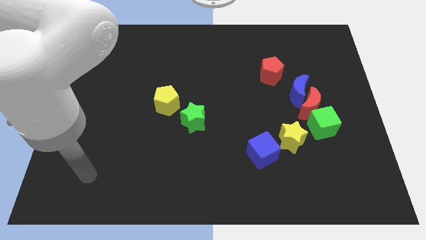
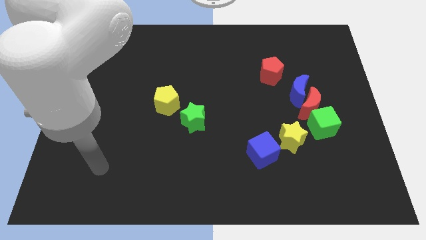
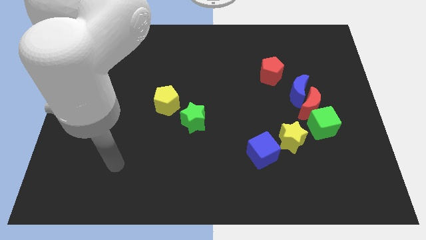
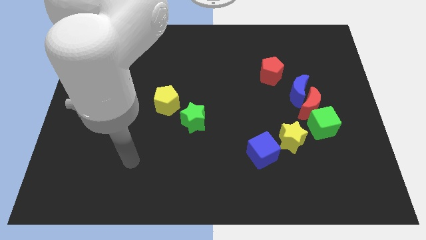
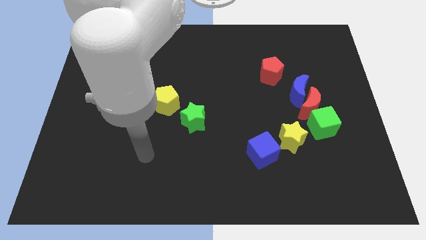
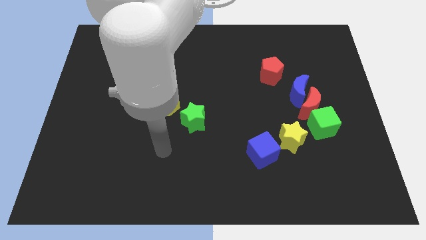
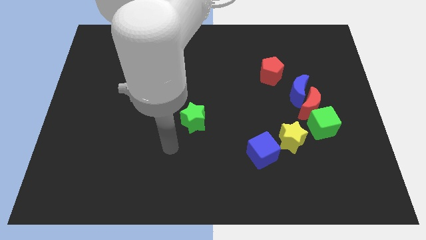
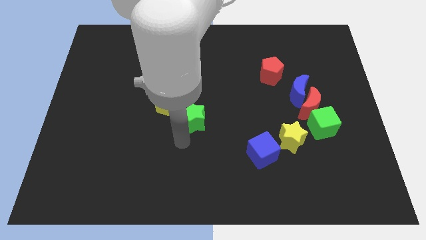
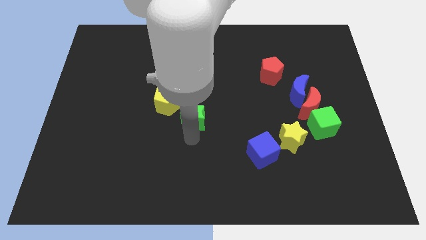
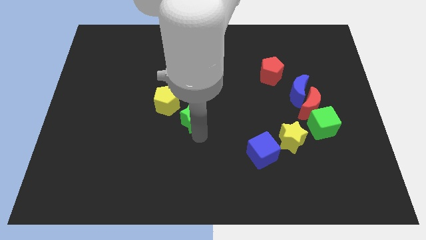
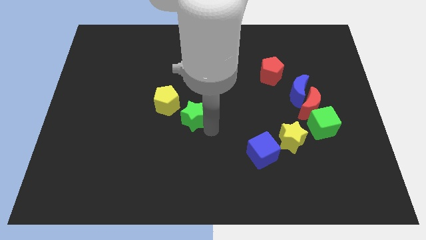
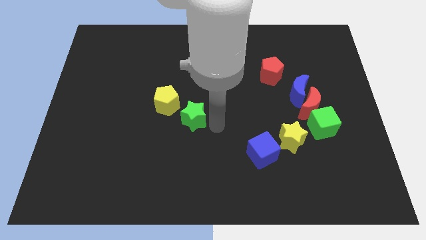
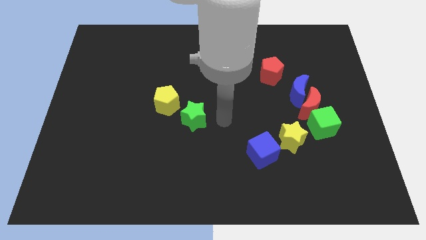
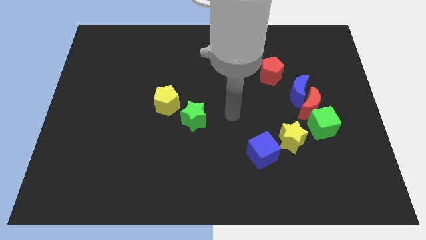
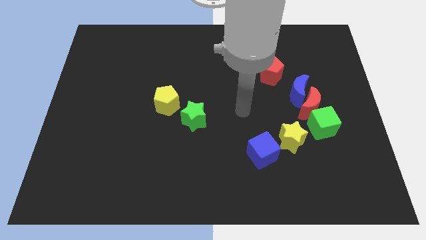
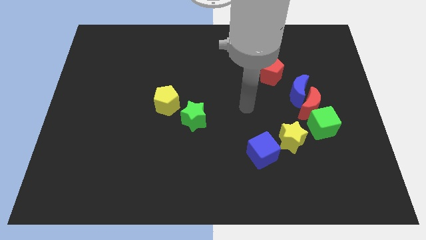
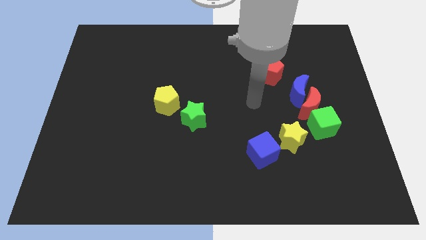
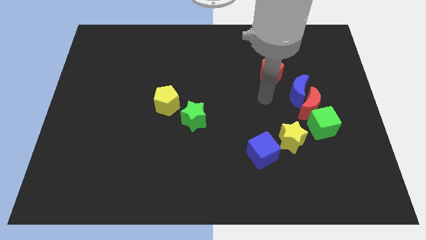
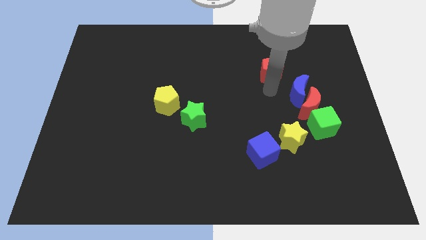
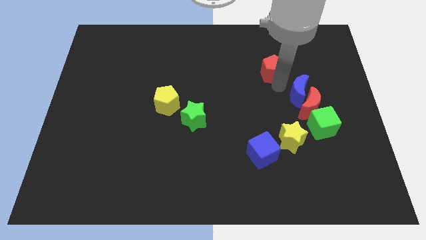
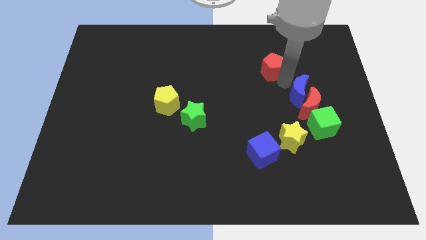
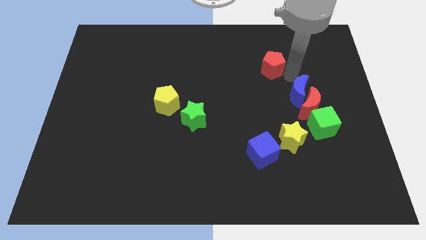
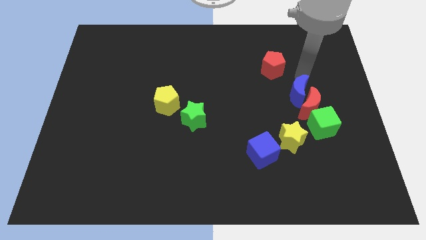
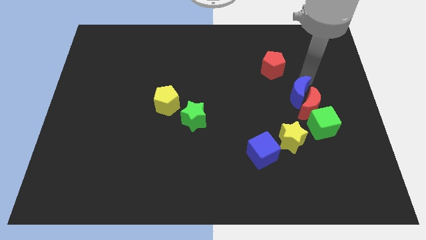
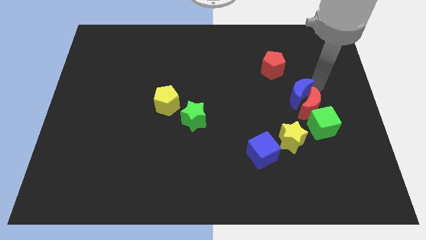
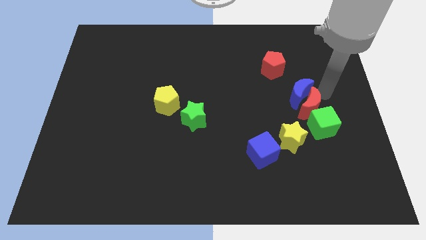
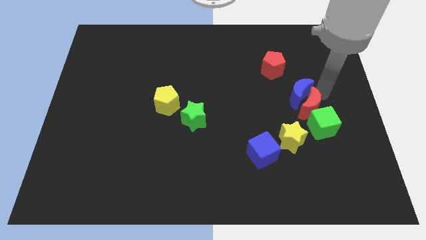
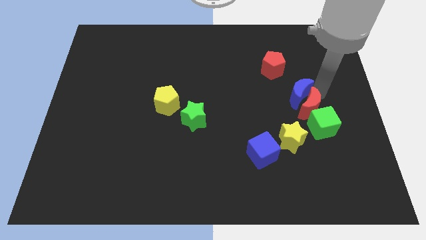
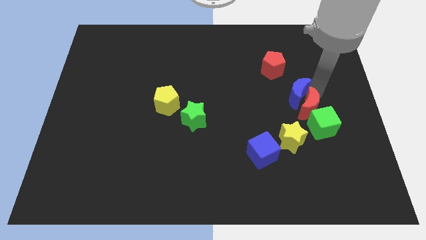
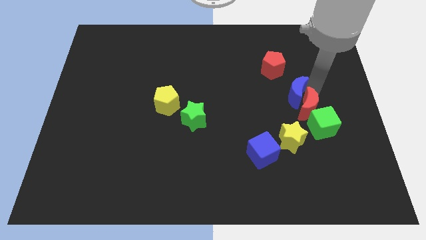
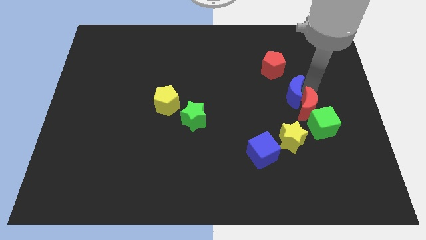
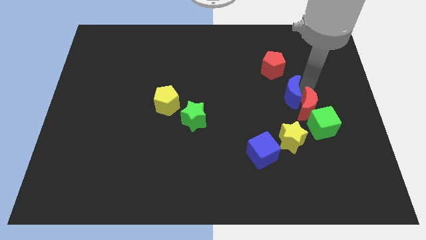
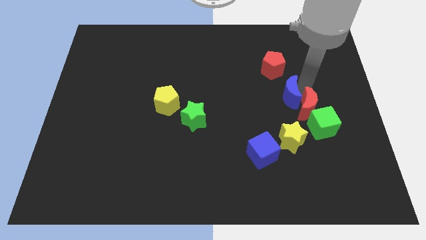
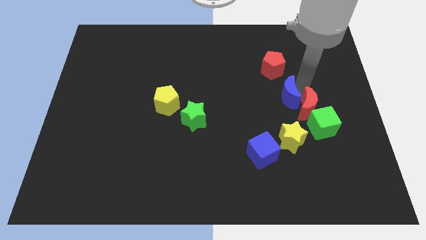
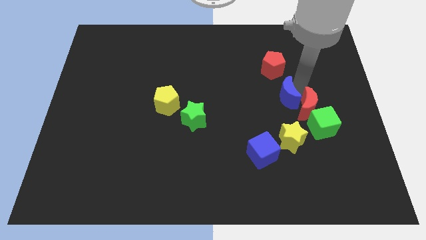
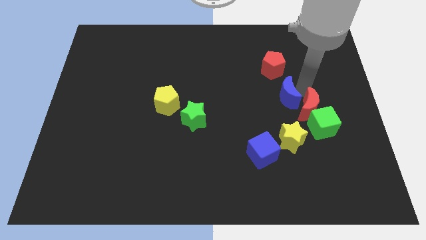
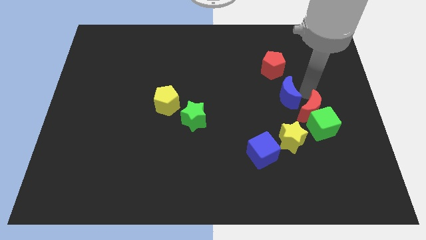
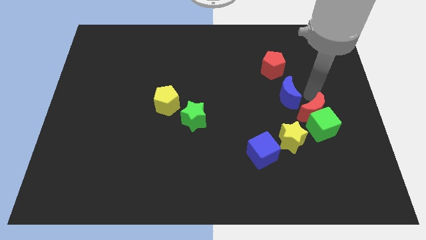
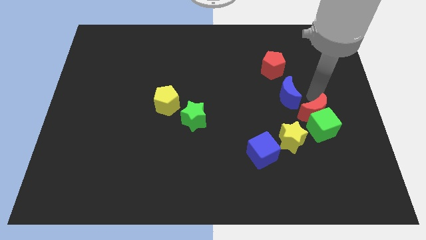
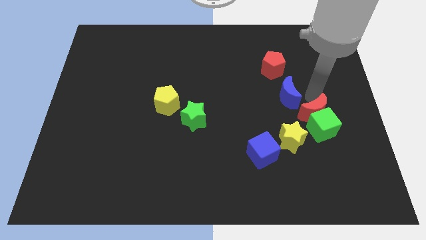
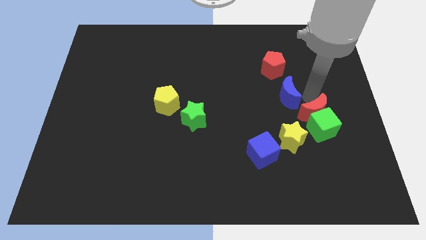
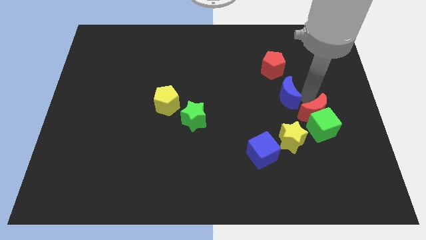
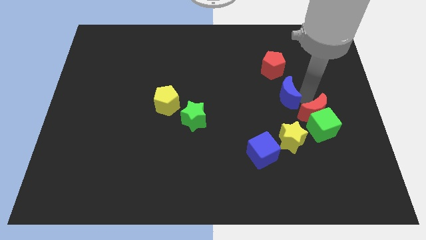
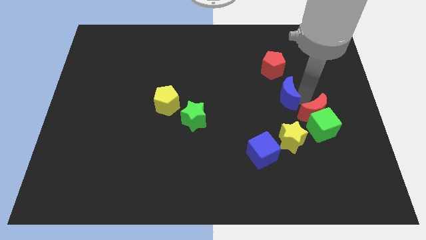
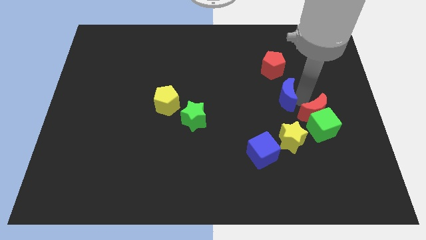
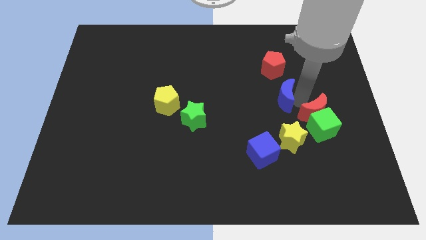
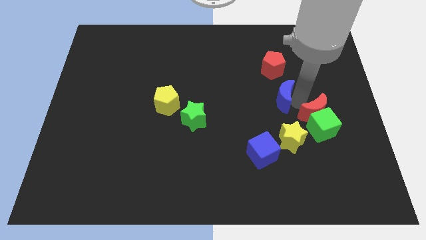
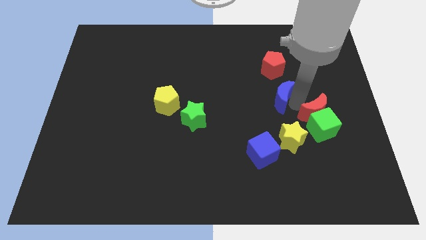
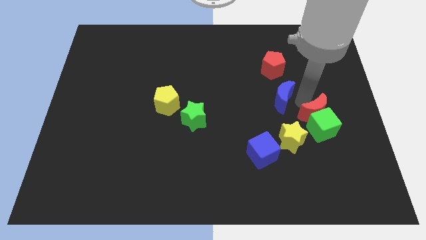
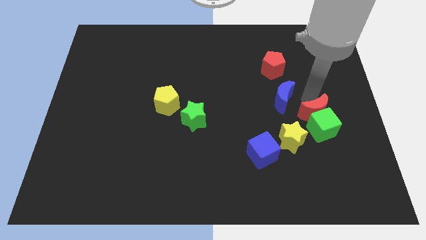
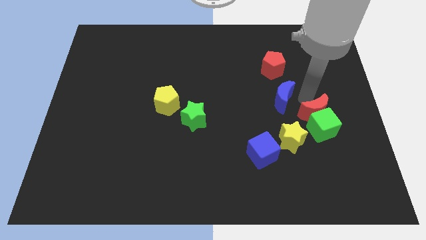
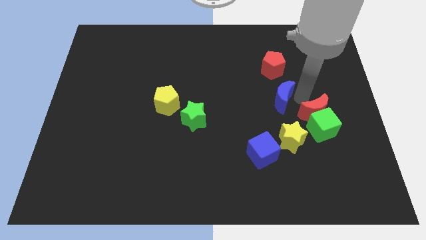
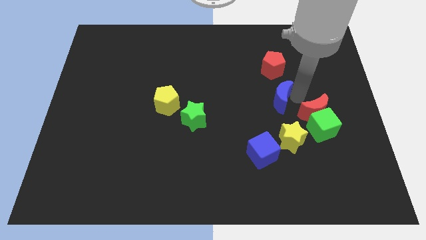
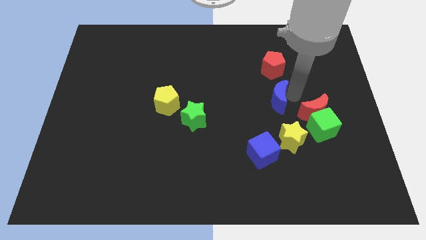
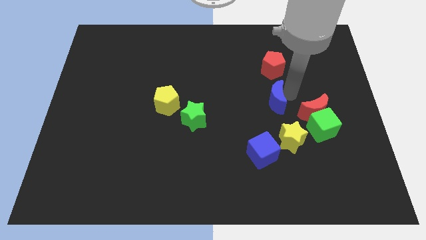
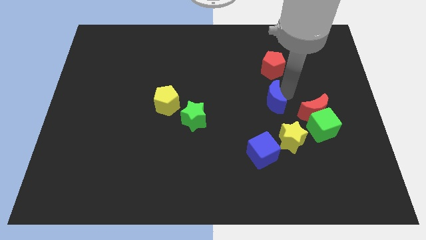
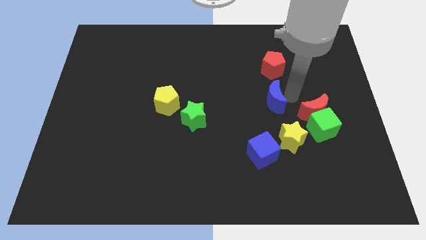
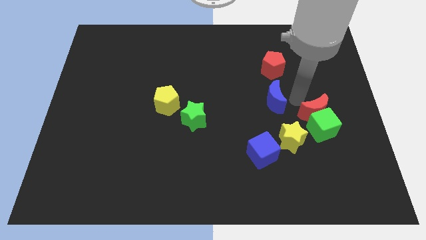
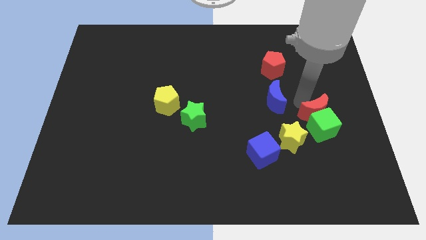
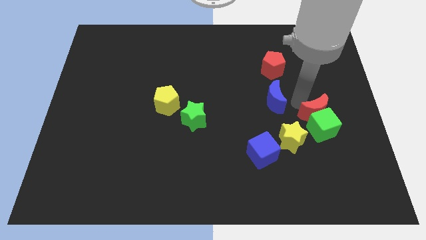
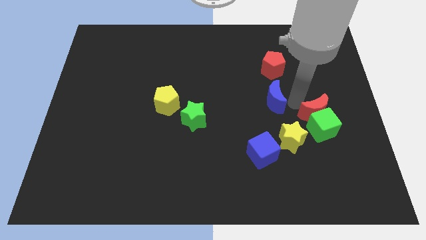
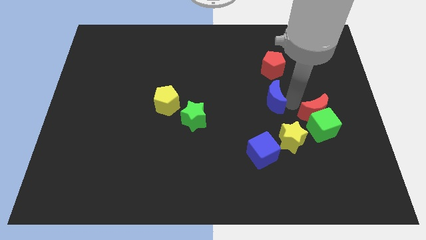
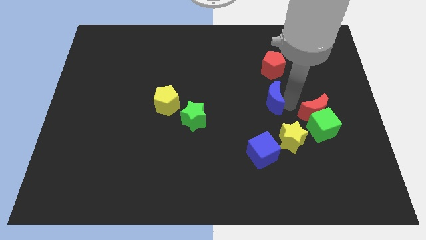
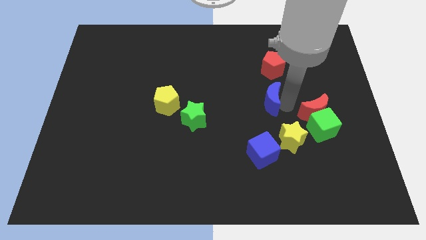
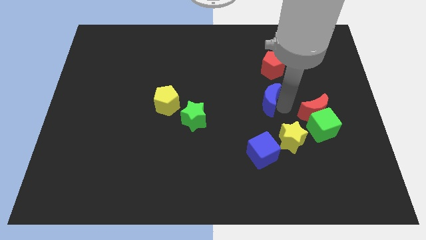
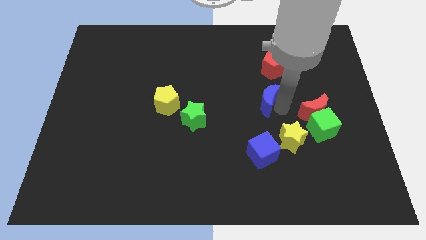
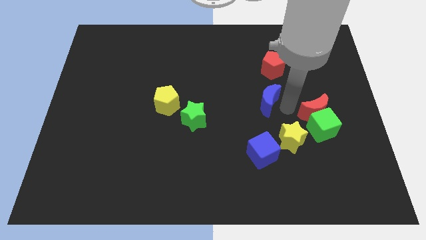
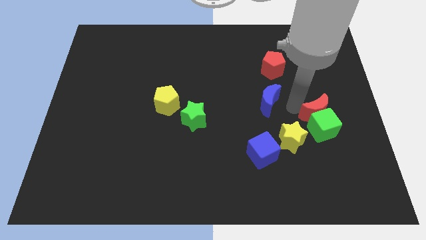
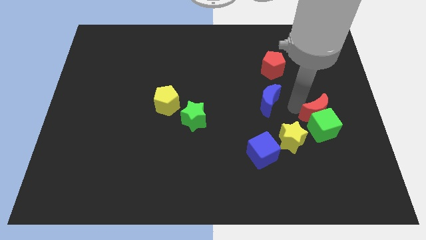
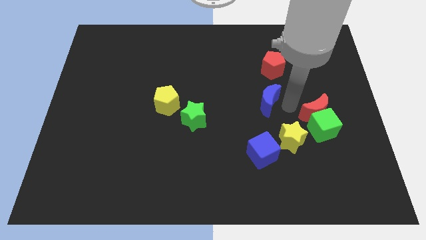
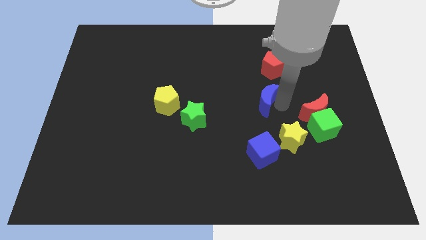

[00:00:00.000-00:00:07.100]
move the blue moon to the middle of the board

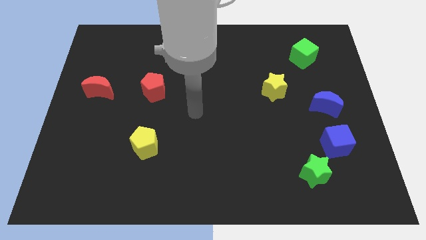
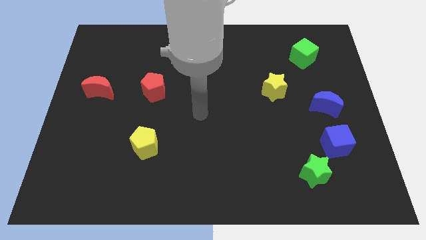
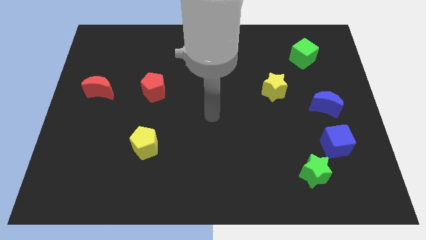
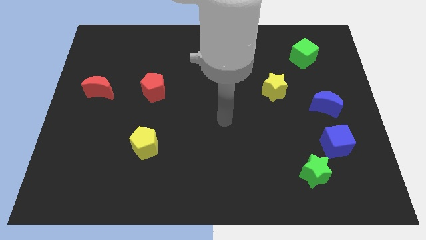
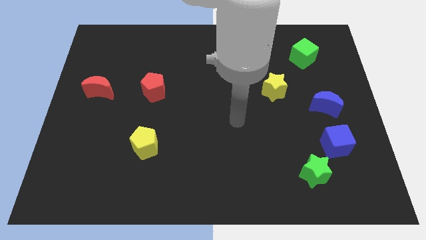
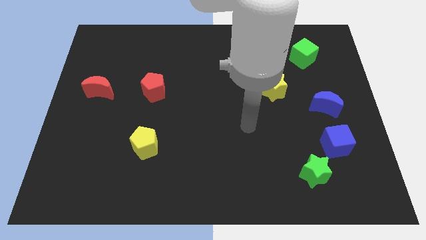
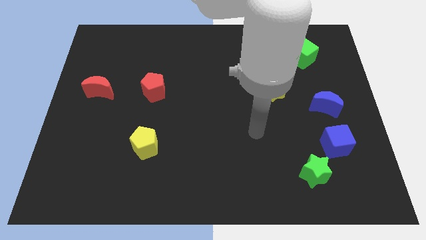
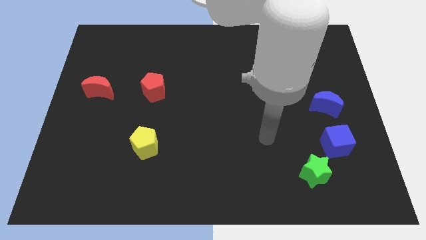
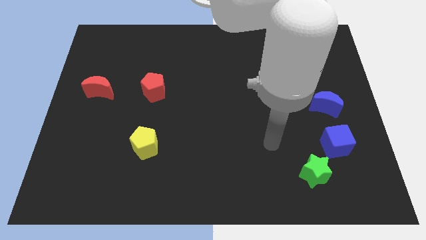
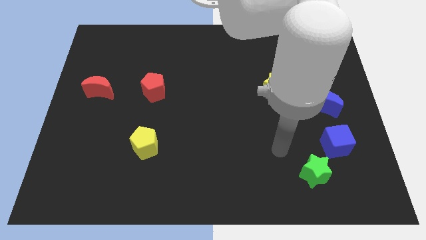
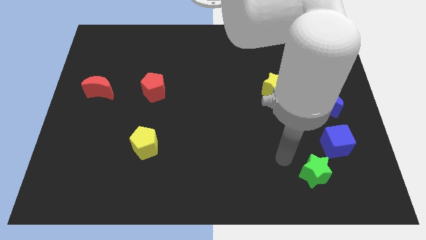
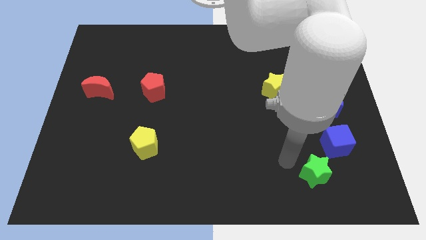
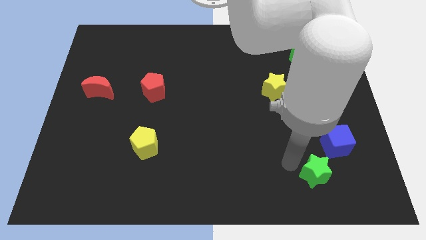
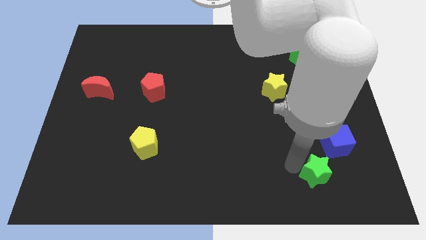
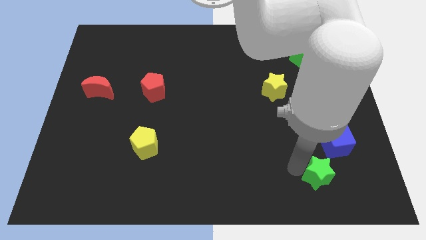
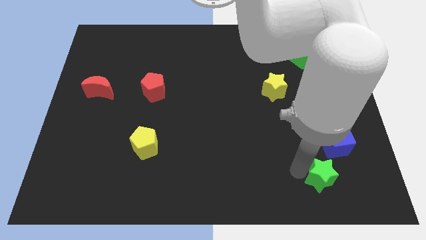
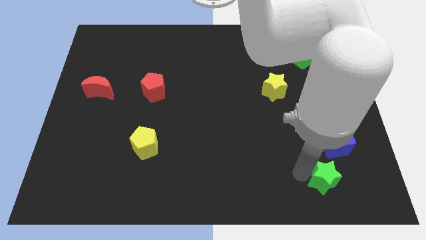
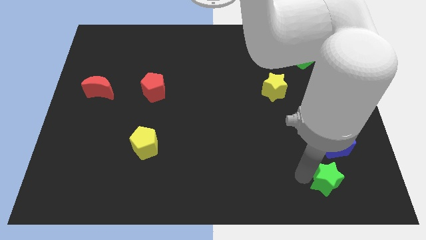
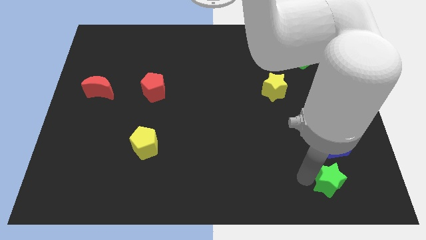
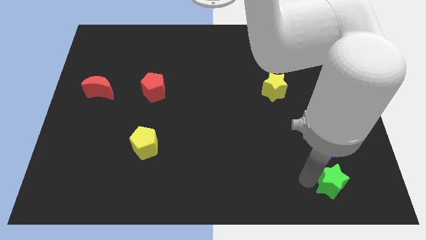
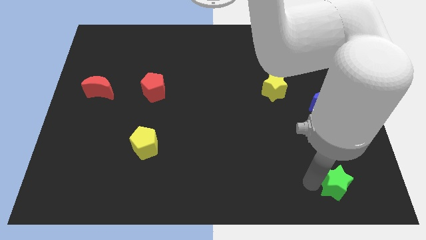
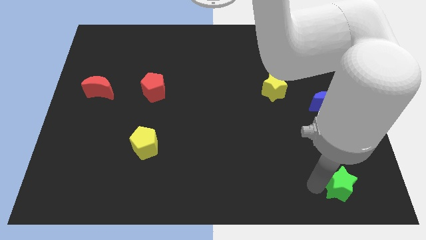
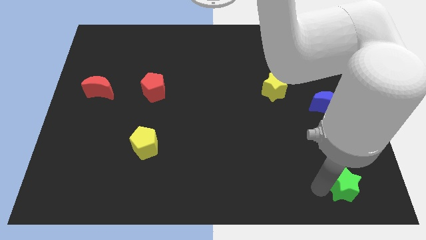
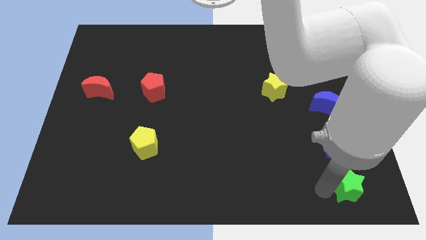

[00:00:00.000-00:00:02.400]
put the green star to the bottom right
